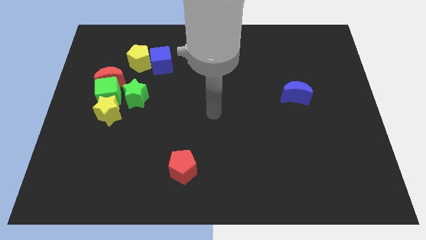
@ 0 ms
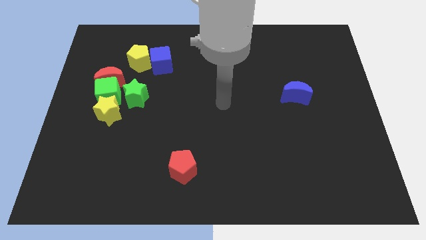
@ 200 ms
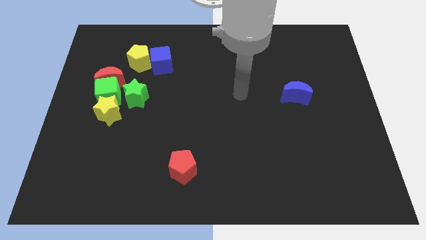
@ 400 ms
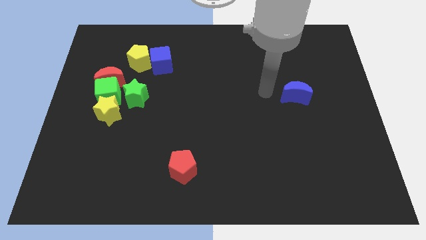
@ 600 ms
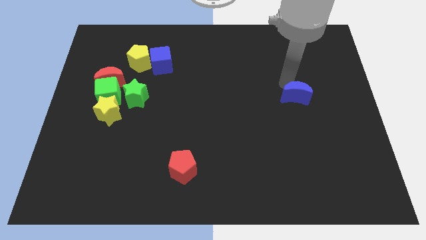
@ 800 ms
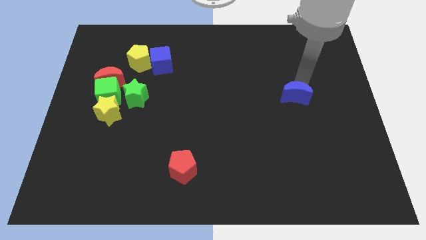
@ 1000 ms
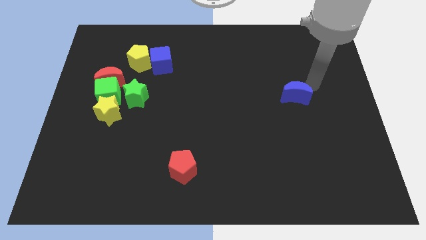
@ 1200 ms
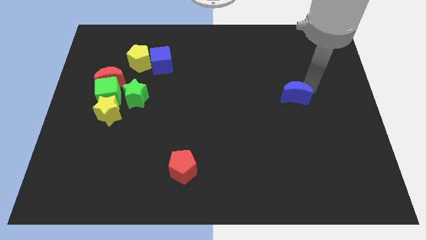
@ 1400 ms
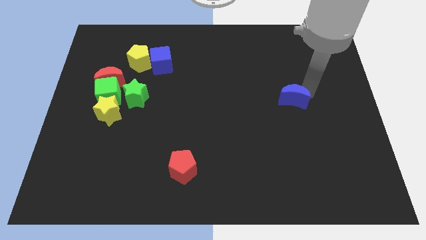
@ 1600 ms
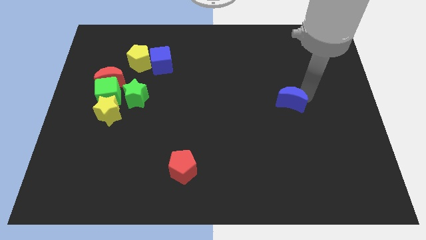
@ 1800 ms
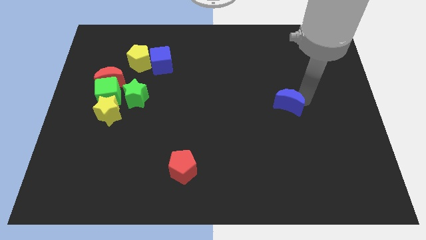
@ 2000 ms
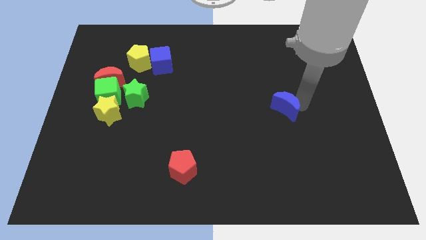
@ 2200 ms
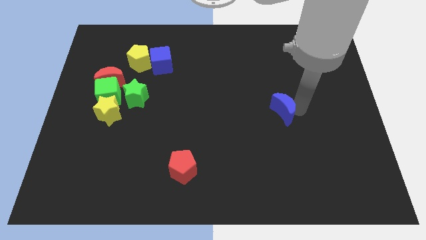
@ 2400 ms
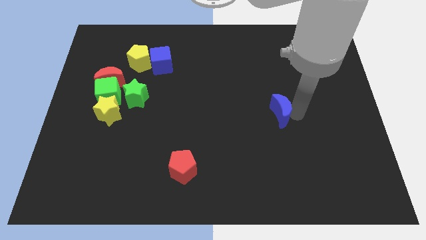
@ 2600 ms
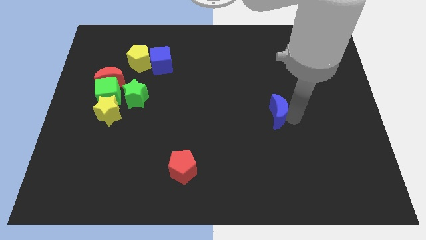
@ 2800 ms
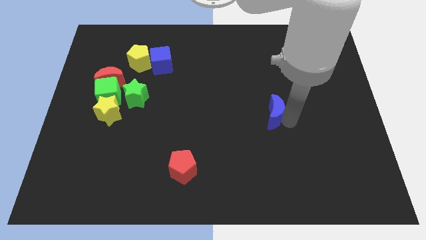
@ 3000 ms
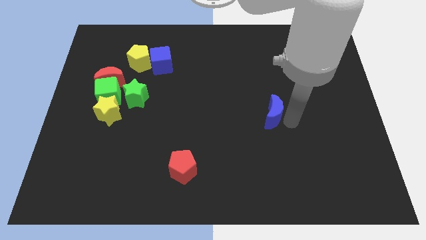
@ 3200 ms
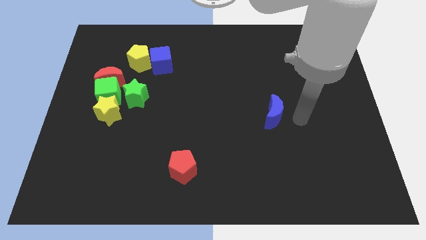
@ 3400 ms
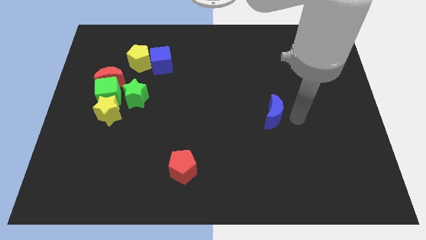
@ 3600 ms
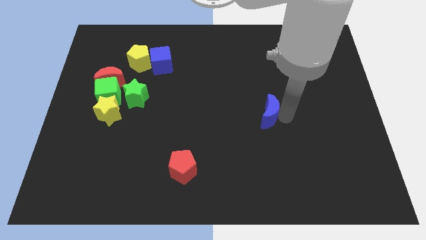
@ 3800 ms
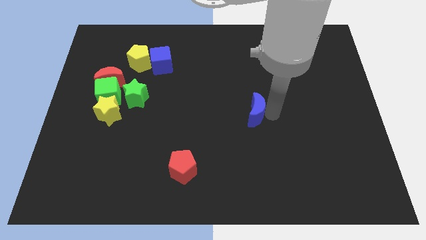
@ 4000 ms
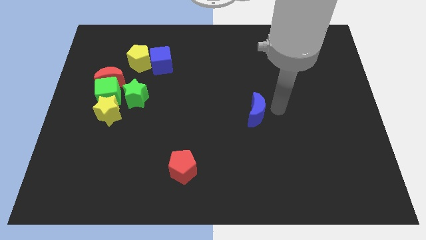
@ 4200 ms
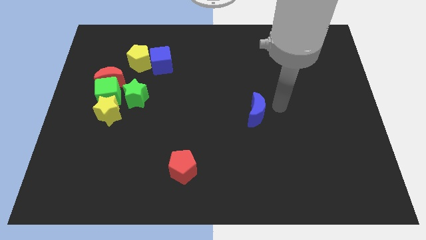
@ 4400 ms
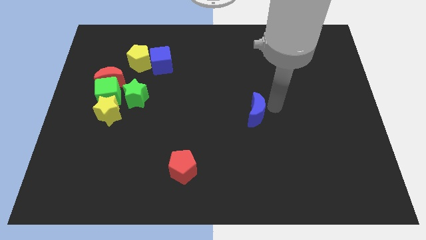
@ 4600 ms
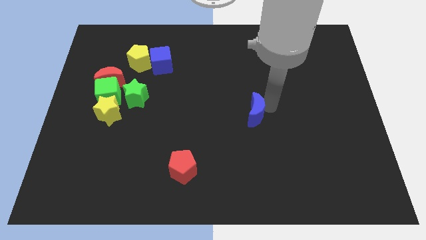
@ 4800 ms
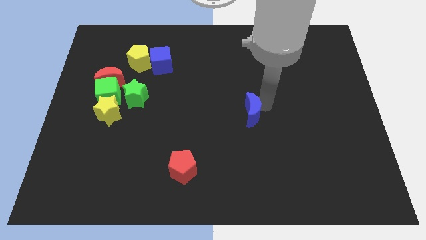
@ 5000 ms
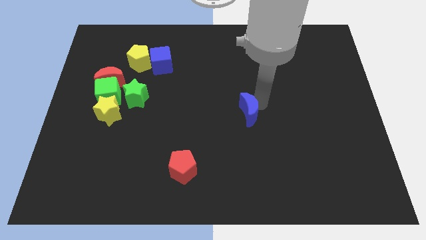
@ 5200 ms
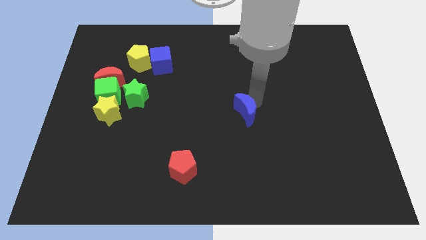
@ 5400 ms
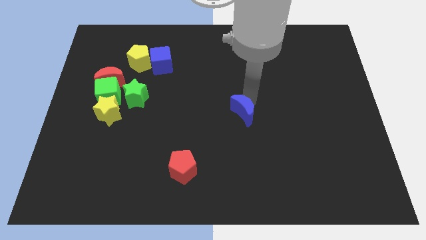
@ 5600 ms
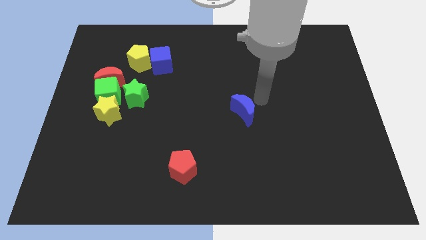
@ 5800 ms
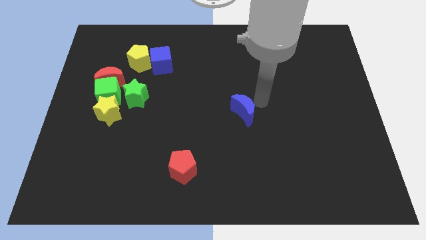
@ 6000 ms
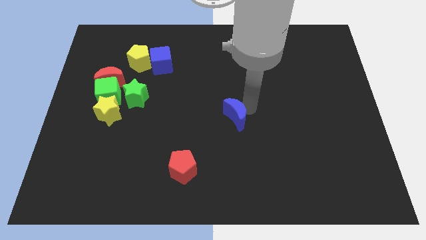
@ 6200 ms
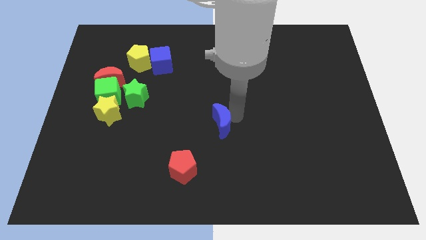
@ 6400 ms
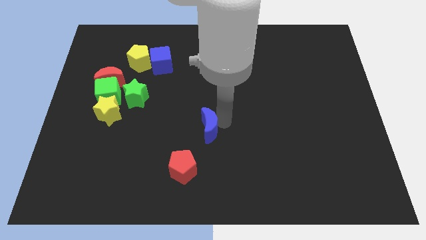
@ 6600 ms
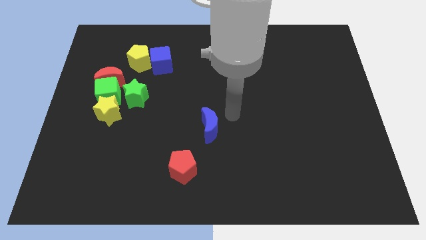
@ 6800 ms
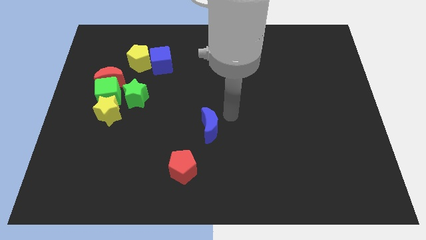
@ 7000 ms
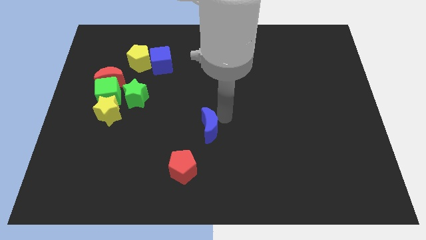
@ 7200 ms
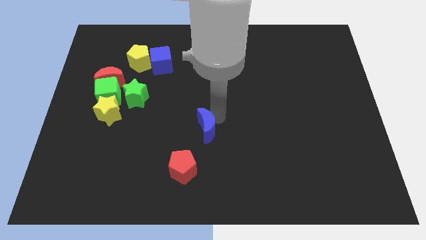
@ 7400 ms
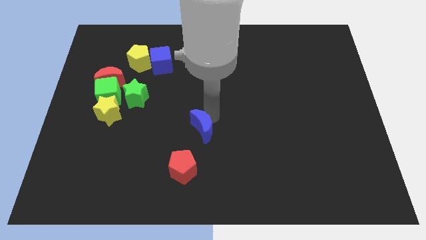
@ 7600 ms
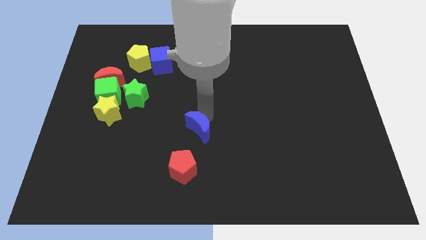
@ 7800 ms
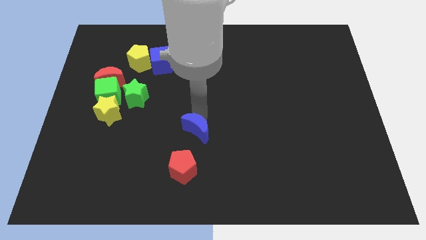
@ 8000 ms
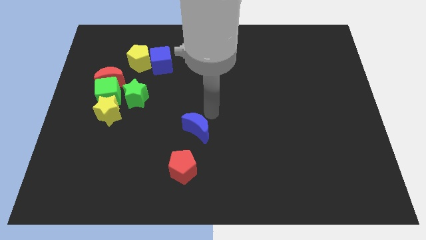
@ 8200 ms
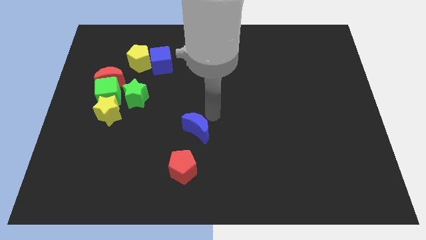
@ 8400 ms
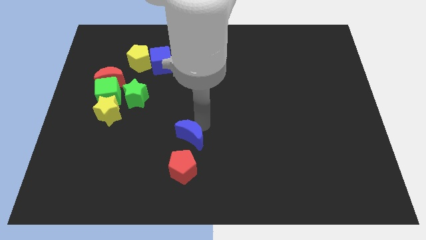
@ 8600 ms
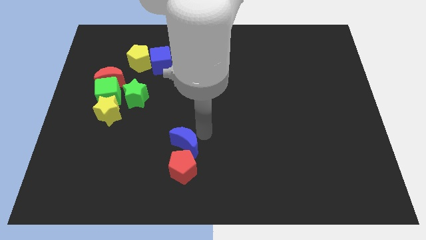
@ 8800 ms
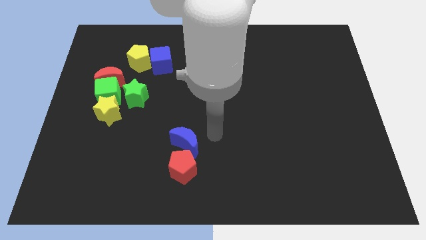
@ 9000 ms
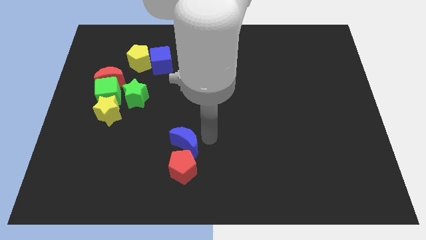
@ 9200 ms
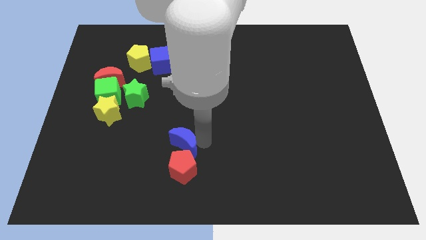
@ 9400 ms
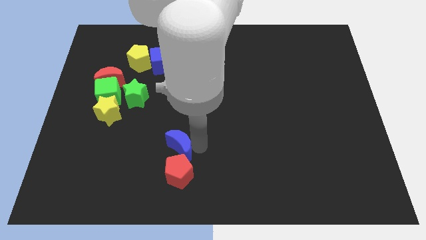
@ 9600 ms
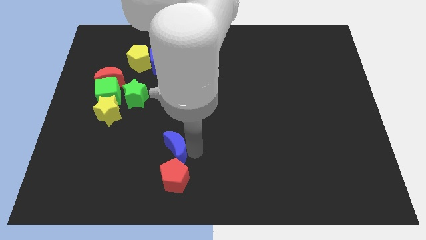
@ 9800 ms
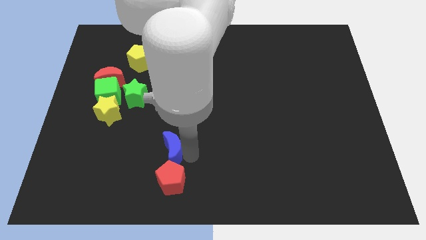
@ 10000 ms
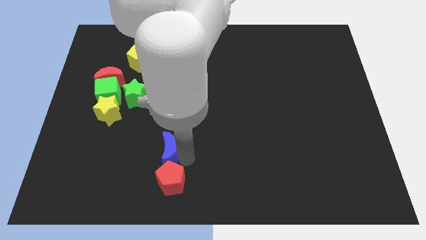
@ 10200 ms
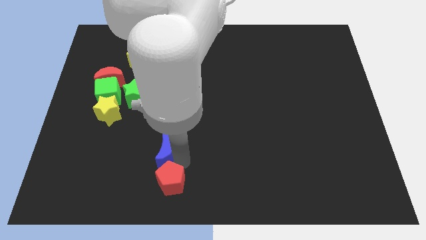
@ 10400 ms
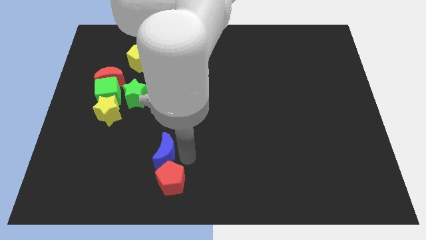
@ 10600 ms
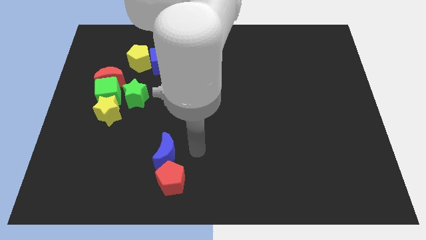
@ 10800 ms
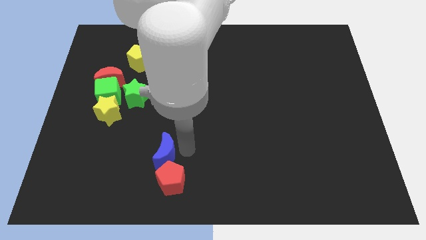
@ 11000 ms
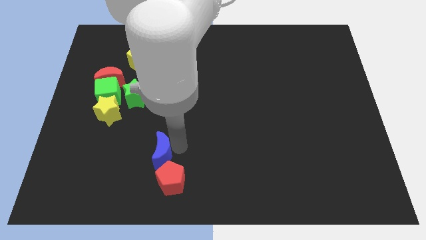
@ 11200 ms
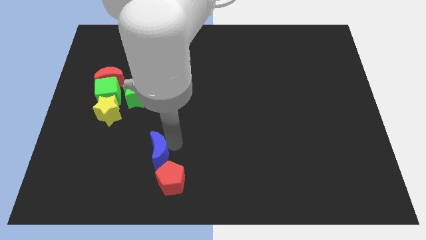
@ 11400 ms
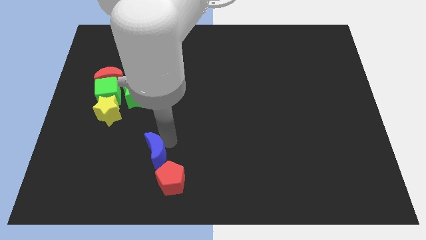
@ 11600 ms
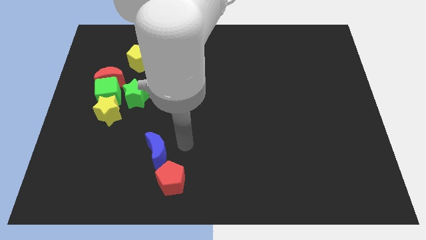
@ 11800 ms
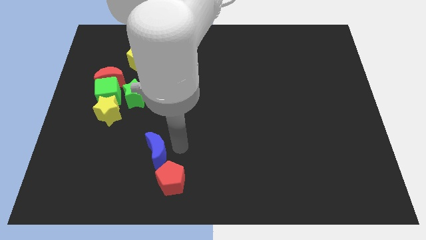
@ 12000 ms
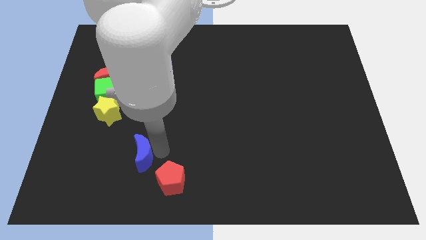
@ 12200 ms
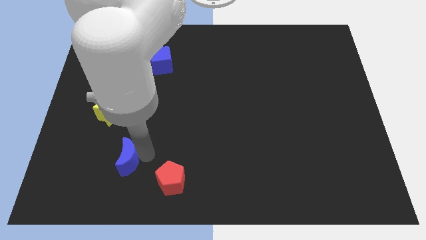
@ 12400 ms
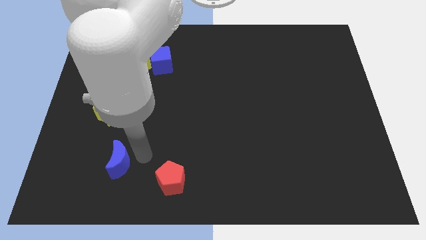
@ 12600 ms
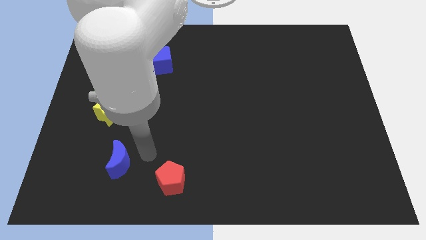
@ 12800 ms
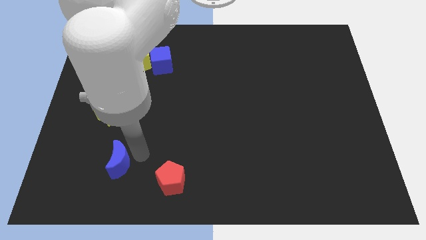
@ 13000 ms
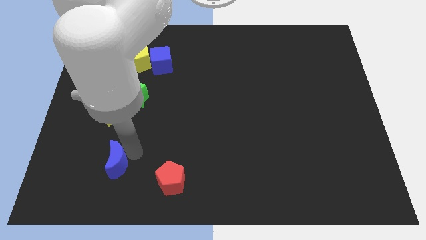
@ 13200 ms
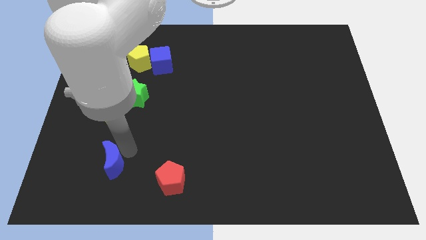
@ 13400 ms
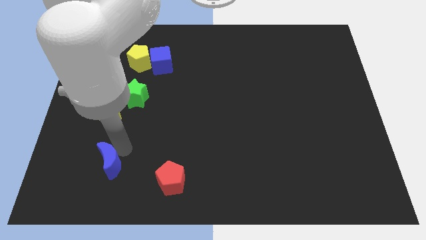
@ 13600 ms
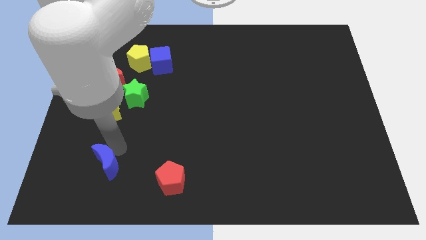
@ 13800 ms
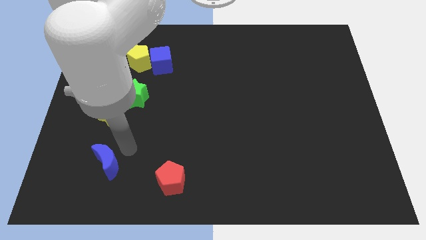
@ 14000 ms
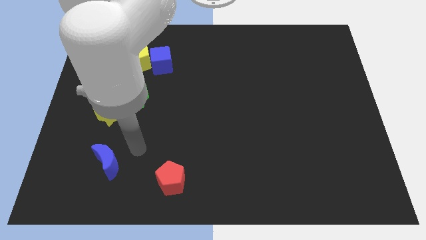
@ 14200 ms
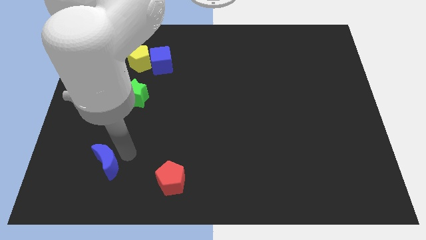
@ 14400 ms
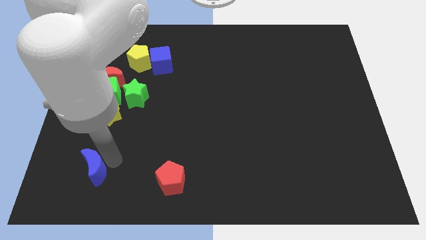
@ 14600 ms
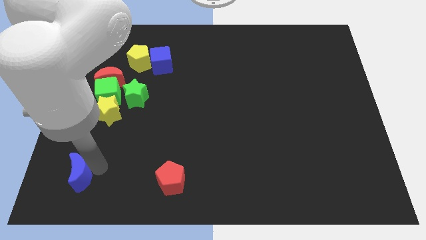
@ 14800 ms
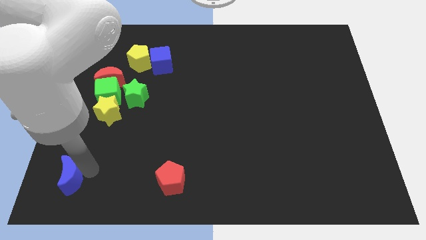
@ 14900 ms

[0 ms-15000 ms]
move the blue moon to the bottom left of the board

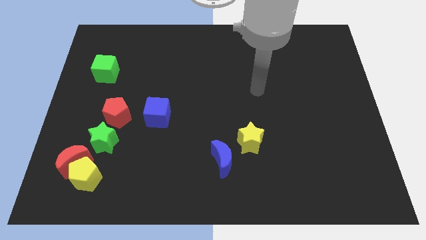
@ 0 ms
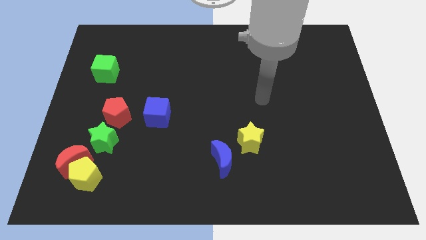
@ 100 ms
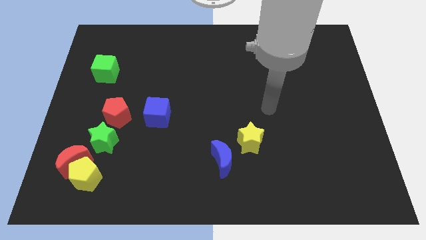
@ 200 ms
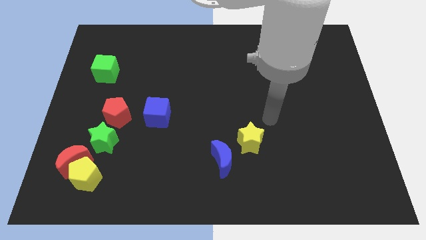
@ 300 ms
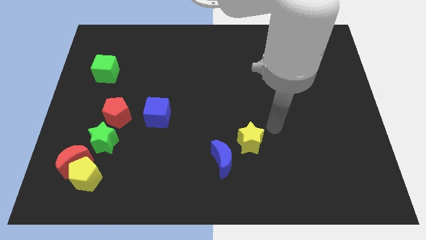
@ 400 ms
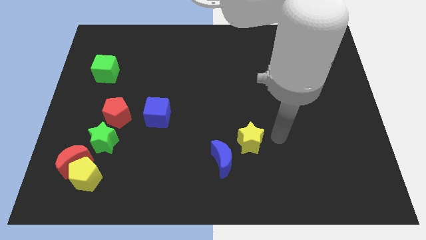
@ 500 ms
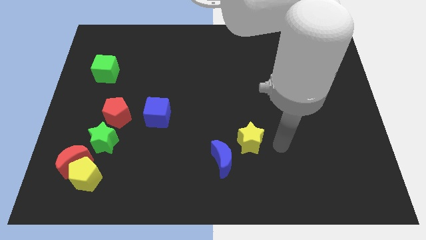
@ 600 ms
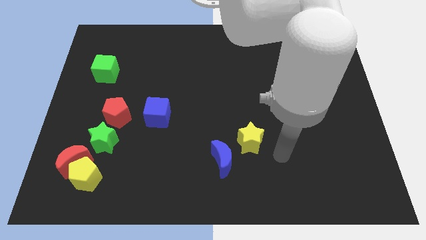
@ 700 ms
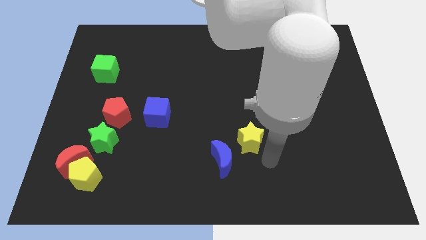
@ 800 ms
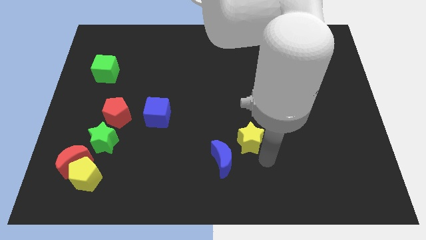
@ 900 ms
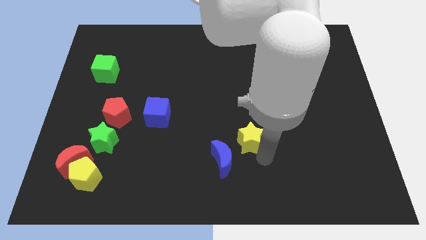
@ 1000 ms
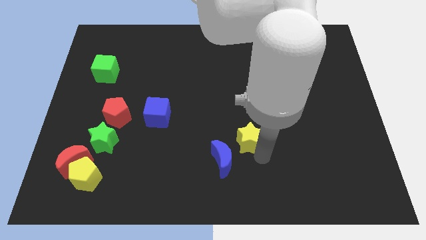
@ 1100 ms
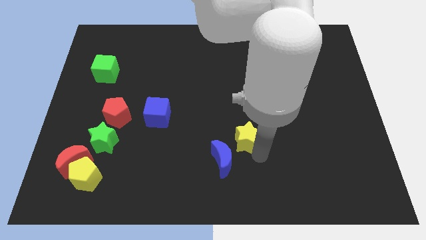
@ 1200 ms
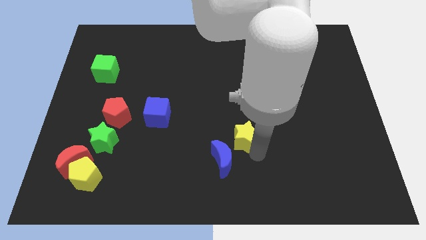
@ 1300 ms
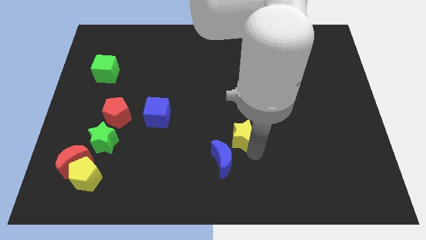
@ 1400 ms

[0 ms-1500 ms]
move the yellow star to the middle
